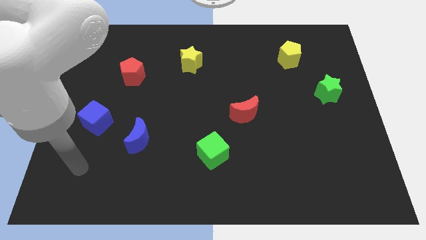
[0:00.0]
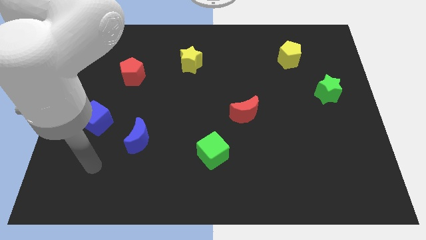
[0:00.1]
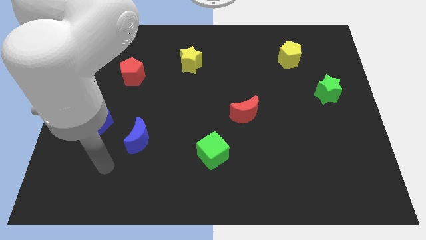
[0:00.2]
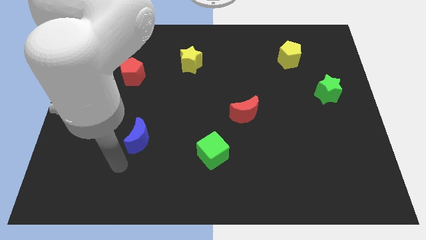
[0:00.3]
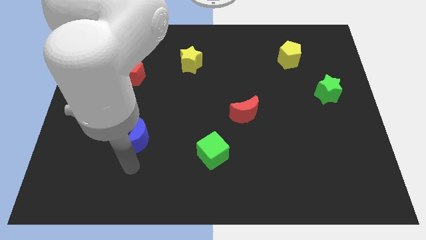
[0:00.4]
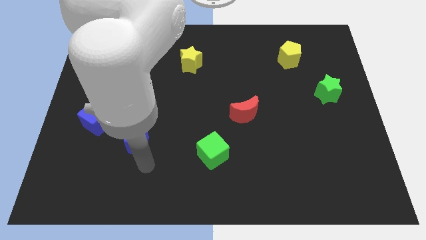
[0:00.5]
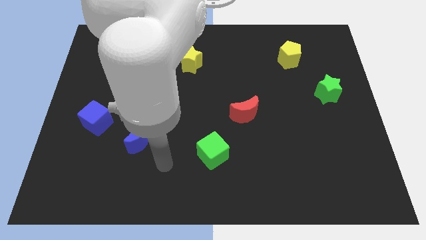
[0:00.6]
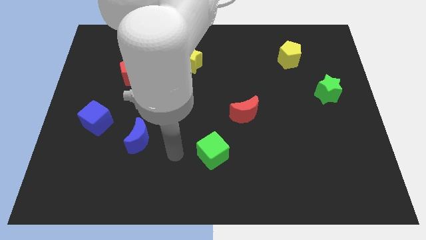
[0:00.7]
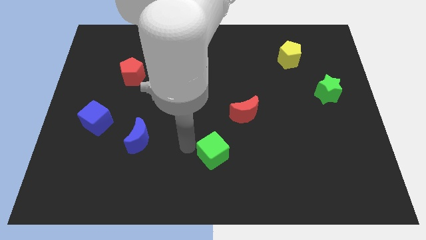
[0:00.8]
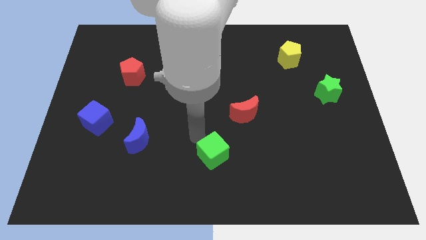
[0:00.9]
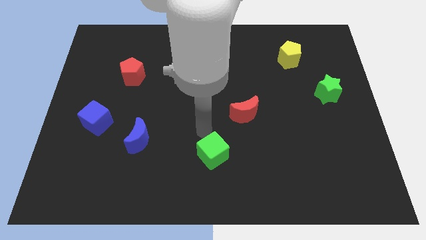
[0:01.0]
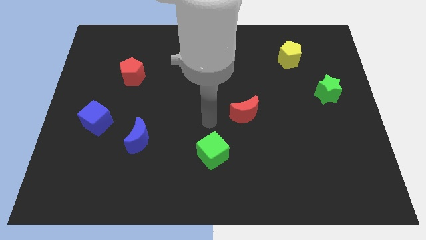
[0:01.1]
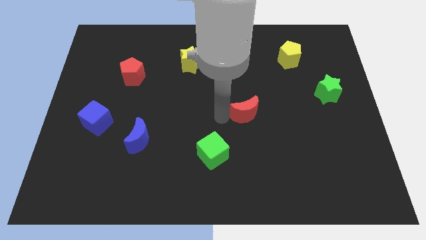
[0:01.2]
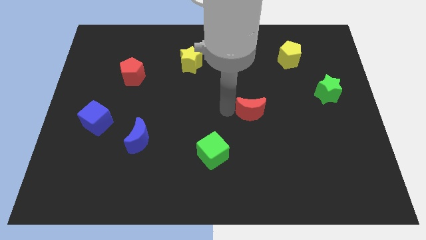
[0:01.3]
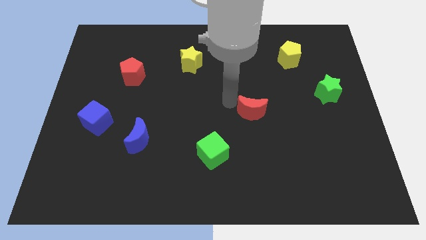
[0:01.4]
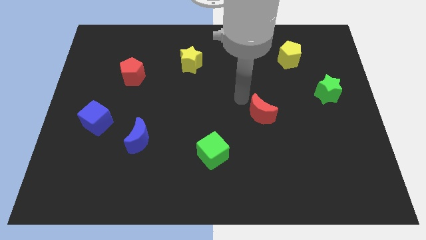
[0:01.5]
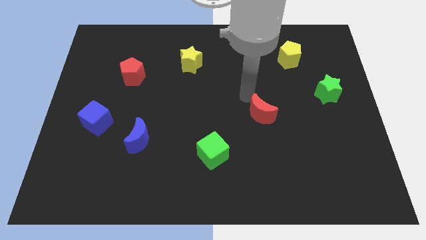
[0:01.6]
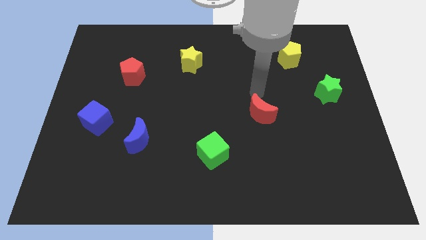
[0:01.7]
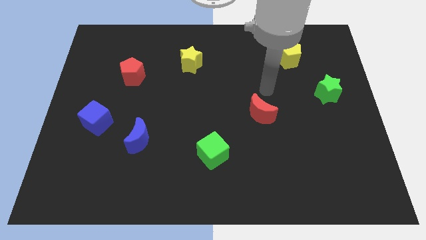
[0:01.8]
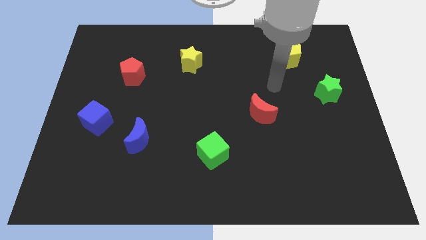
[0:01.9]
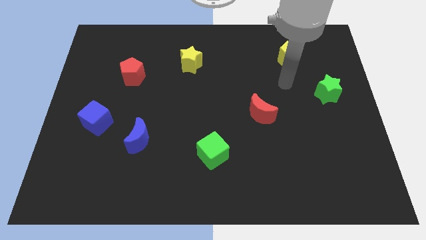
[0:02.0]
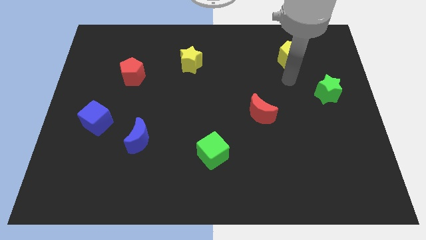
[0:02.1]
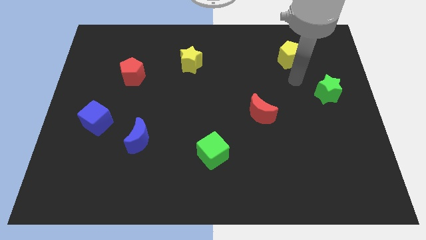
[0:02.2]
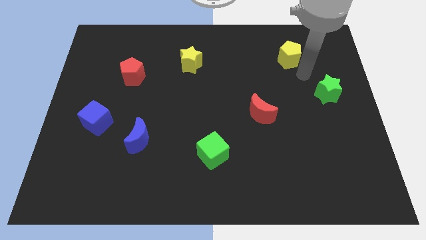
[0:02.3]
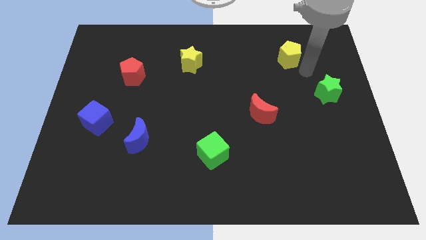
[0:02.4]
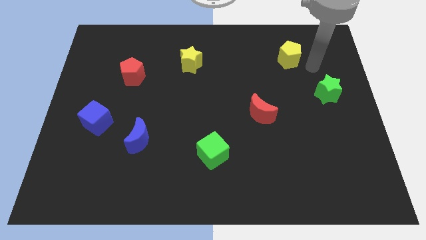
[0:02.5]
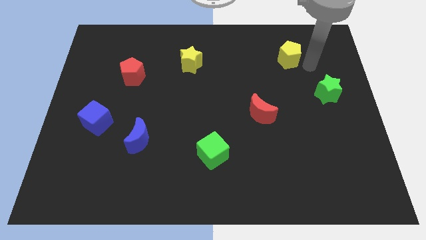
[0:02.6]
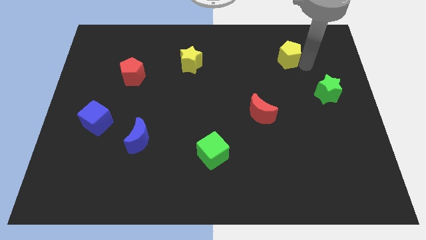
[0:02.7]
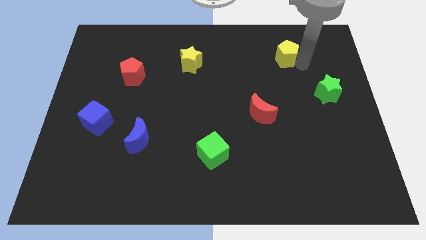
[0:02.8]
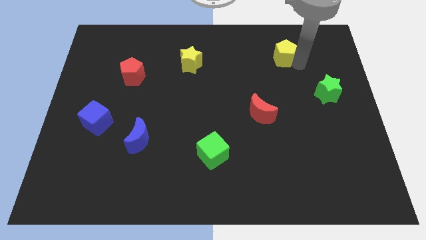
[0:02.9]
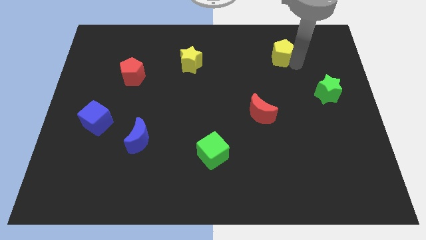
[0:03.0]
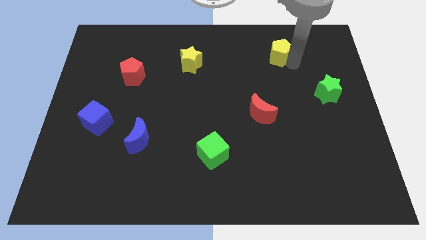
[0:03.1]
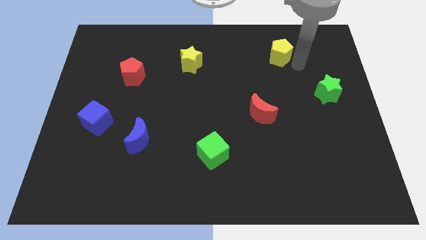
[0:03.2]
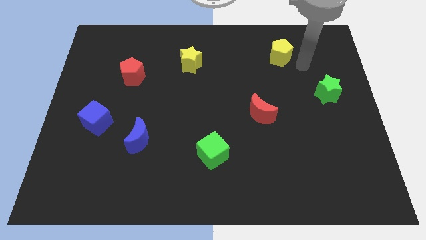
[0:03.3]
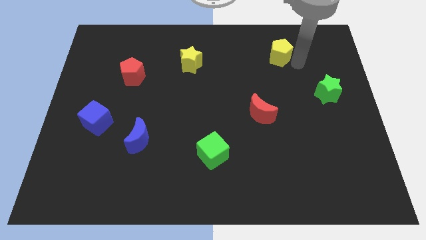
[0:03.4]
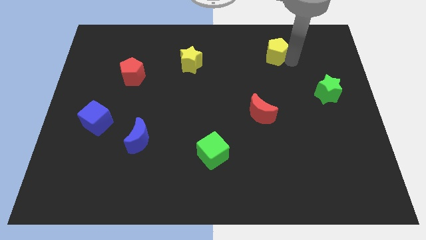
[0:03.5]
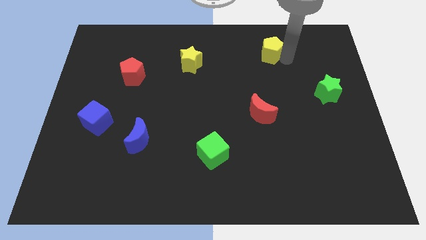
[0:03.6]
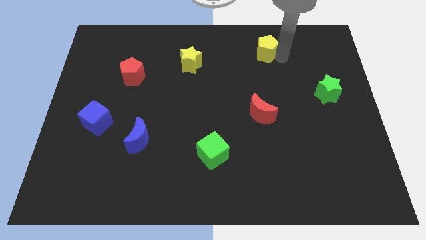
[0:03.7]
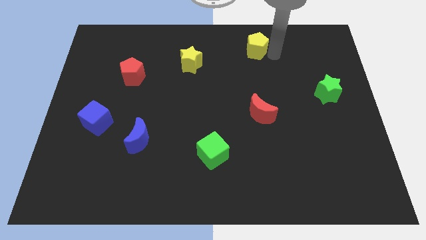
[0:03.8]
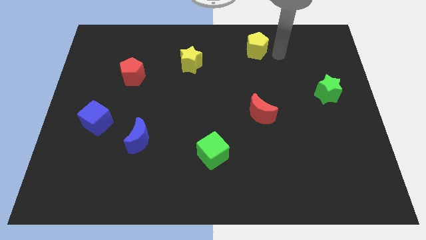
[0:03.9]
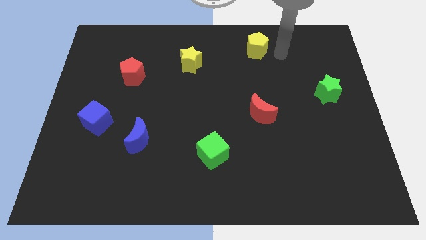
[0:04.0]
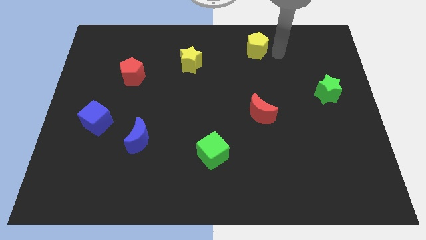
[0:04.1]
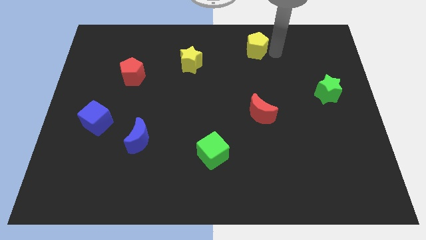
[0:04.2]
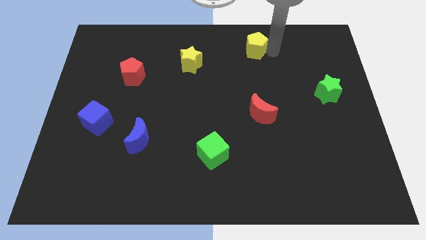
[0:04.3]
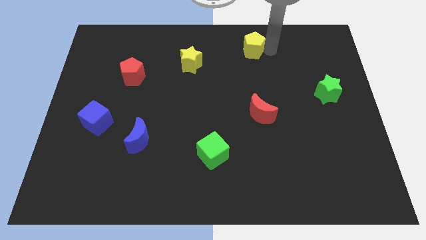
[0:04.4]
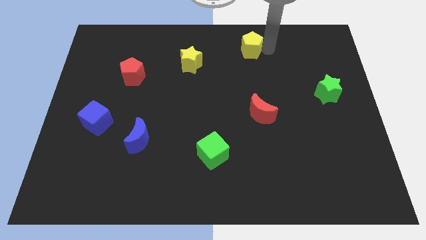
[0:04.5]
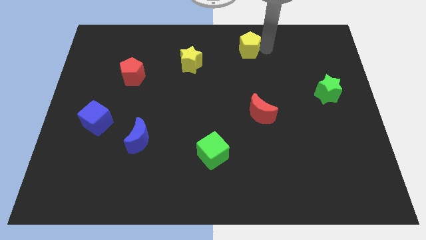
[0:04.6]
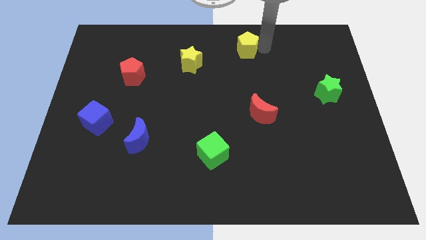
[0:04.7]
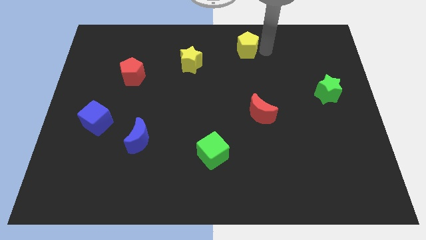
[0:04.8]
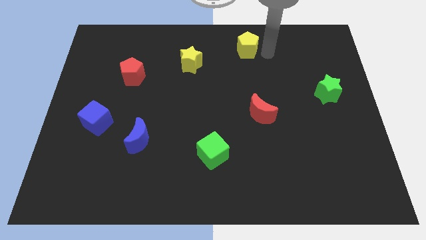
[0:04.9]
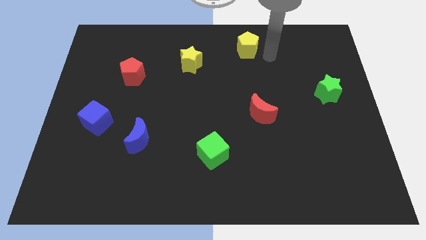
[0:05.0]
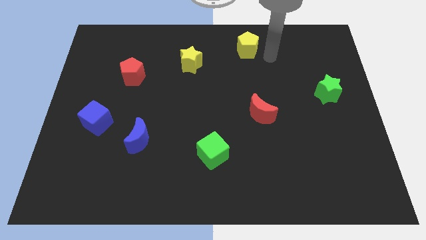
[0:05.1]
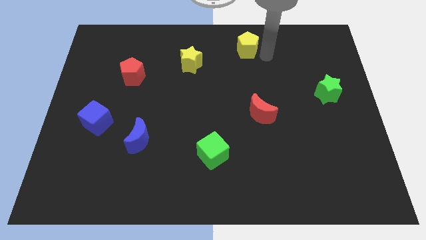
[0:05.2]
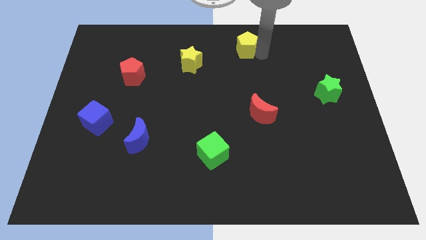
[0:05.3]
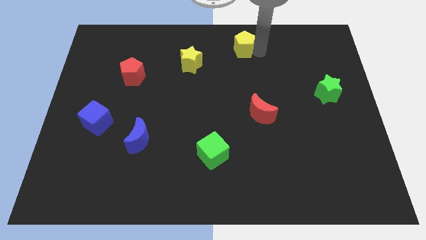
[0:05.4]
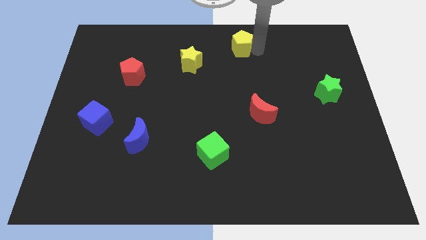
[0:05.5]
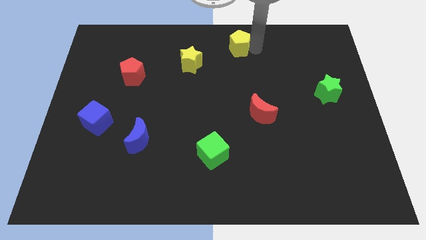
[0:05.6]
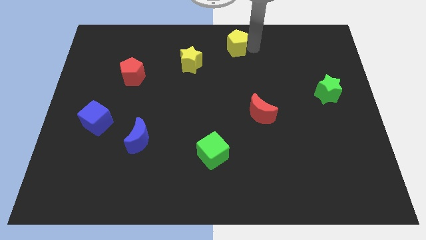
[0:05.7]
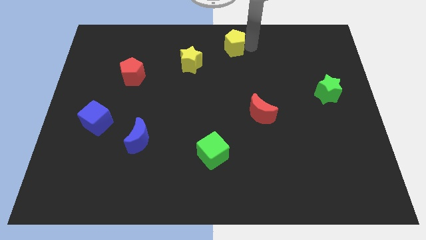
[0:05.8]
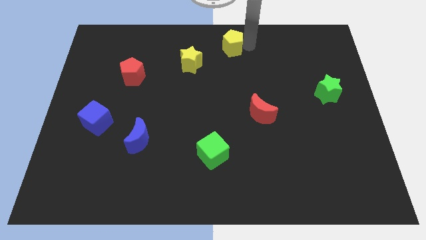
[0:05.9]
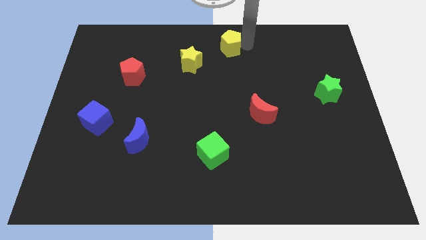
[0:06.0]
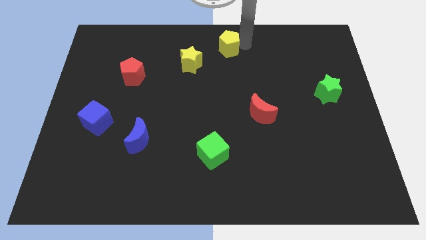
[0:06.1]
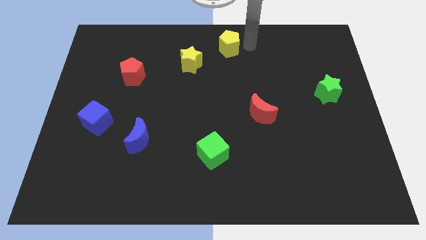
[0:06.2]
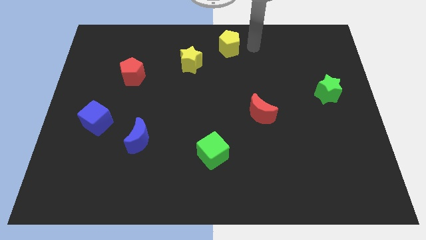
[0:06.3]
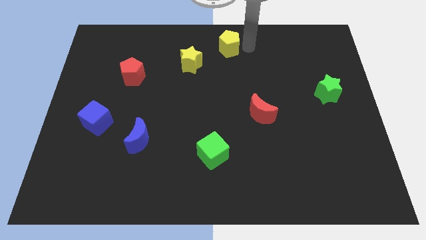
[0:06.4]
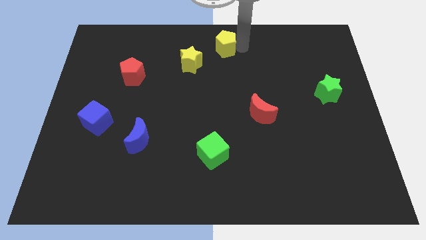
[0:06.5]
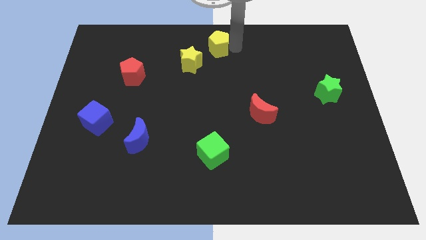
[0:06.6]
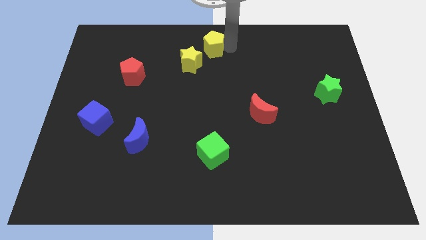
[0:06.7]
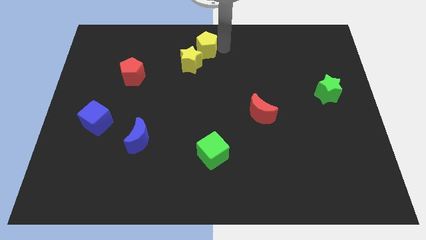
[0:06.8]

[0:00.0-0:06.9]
slide the yellow pentagon left

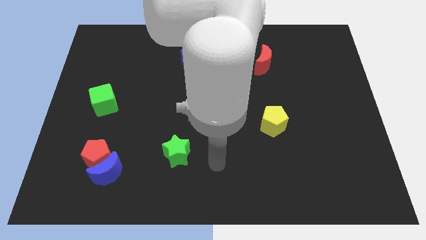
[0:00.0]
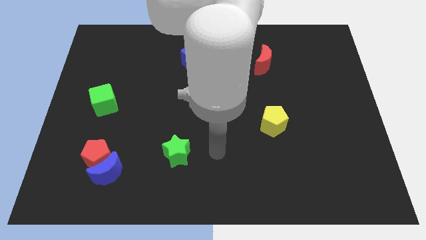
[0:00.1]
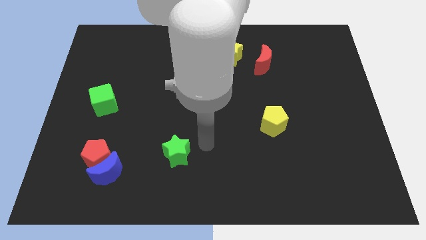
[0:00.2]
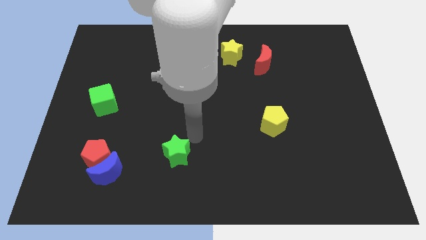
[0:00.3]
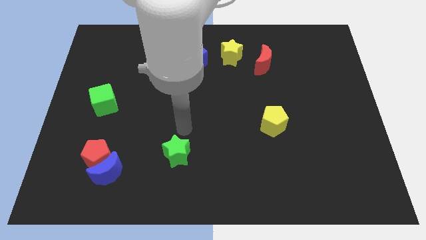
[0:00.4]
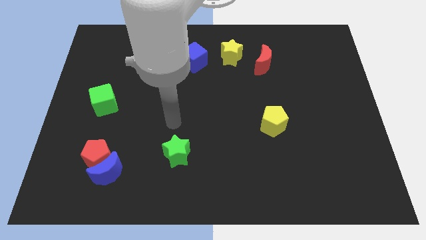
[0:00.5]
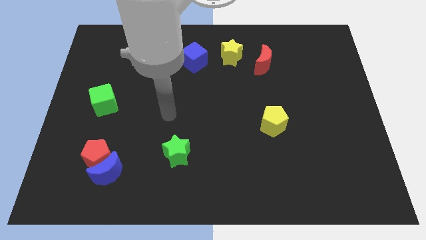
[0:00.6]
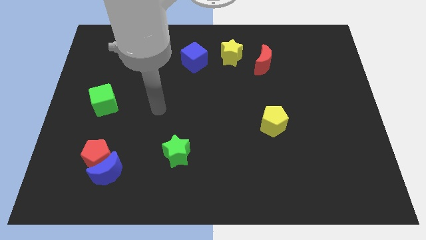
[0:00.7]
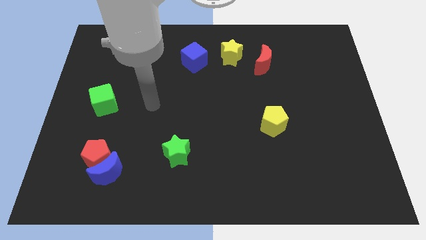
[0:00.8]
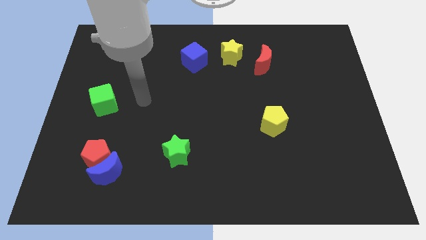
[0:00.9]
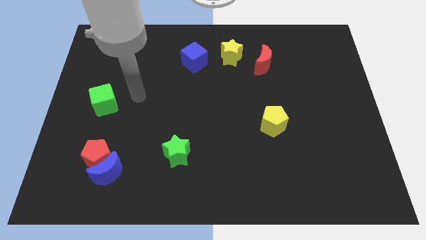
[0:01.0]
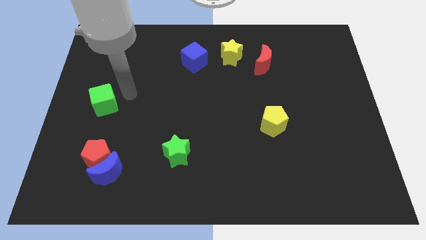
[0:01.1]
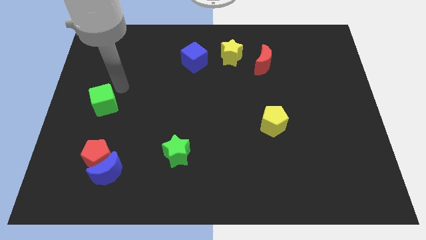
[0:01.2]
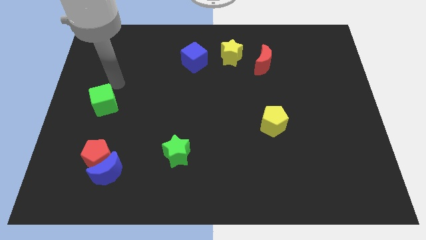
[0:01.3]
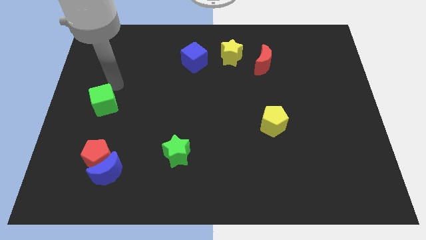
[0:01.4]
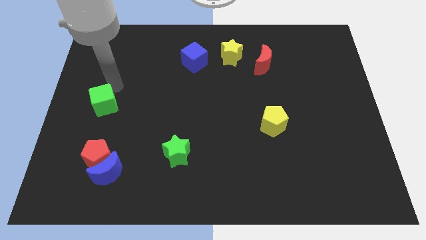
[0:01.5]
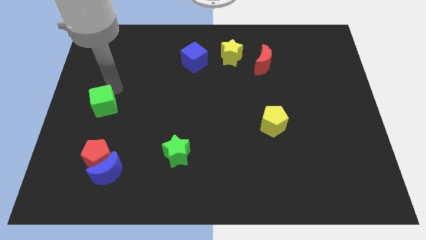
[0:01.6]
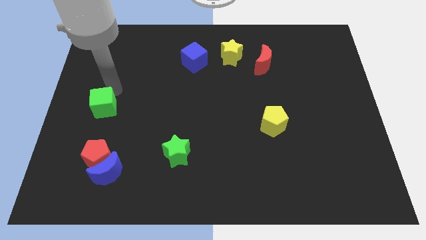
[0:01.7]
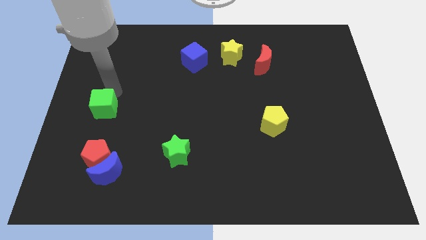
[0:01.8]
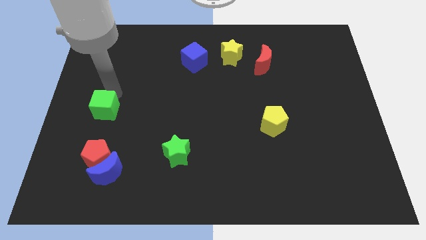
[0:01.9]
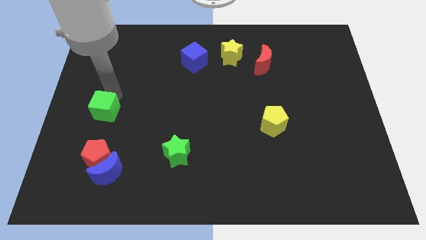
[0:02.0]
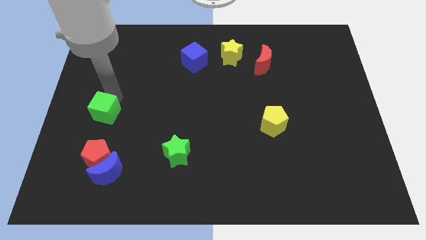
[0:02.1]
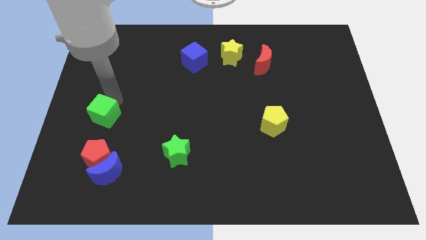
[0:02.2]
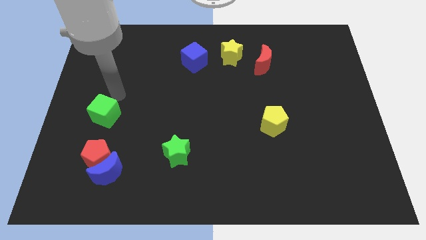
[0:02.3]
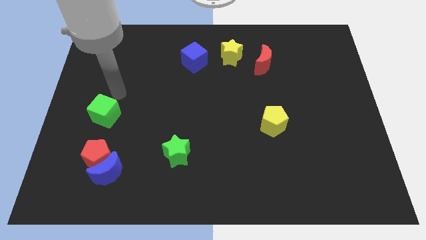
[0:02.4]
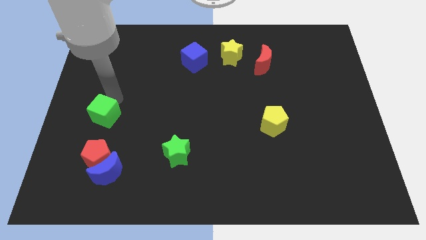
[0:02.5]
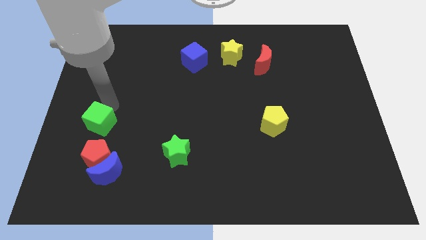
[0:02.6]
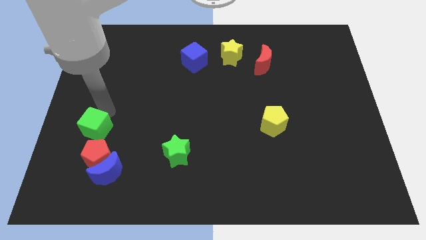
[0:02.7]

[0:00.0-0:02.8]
slightly push the green cube downwards
